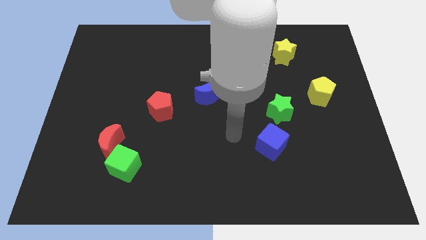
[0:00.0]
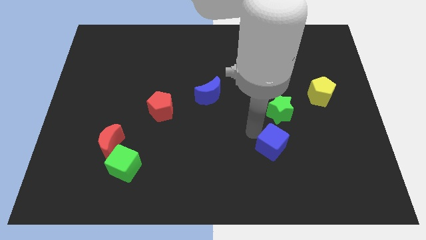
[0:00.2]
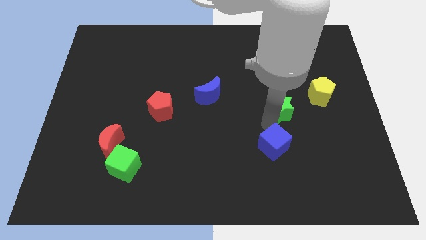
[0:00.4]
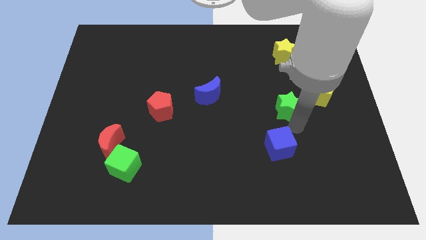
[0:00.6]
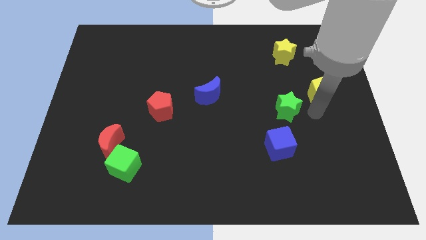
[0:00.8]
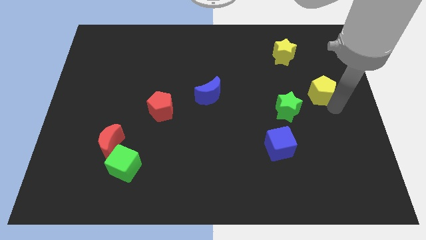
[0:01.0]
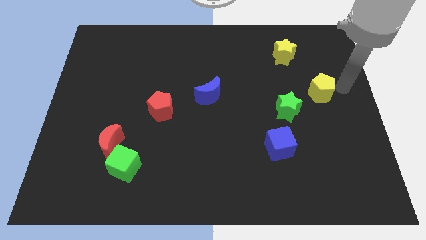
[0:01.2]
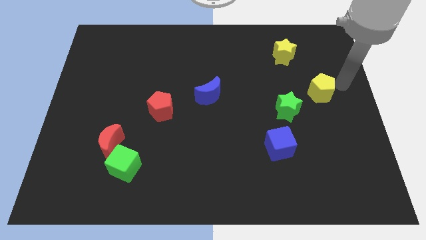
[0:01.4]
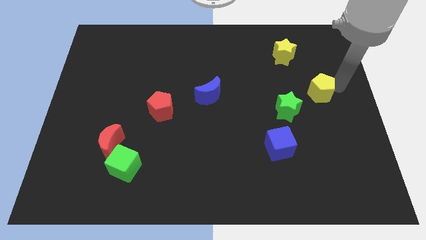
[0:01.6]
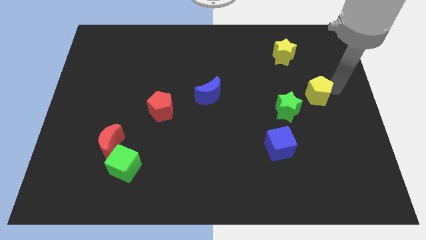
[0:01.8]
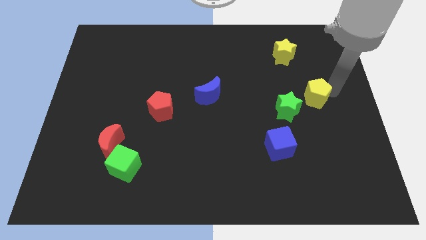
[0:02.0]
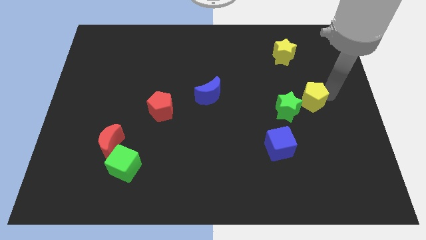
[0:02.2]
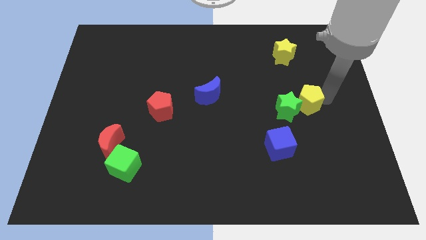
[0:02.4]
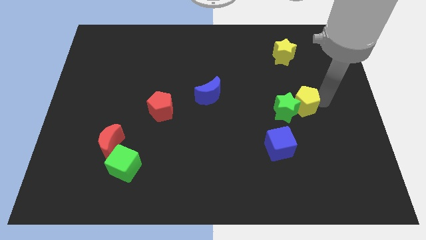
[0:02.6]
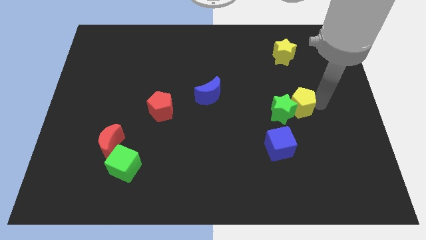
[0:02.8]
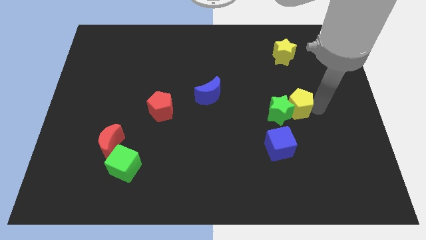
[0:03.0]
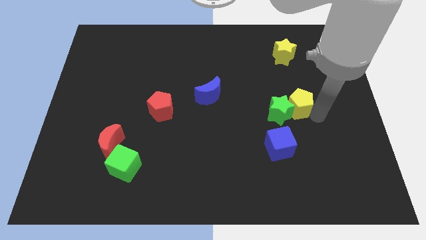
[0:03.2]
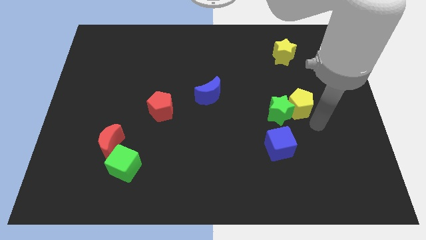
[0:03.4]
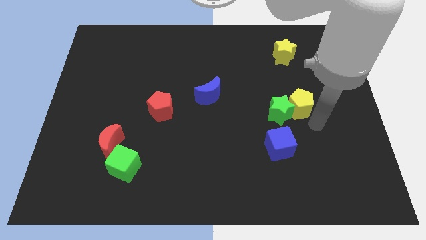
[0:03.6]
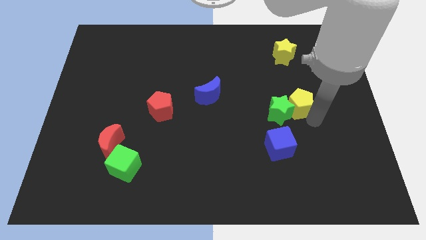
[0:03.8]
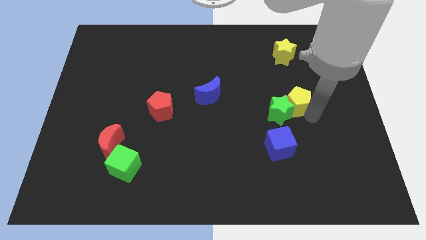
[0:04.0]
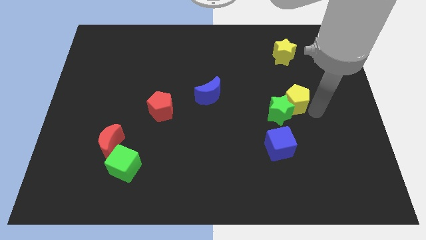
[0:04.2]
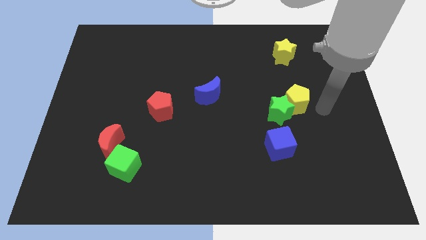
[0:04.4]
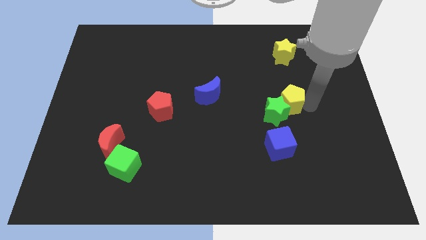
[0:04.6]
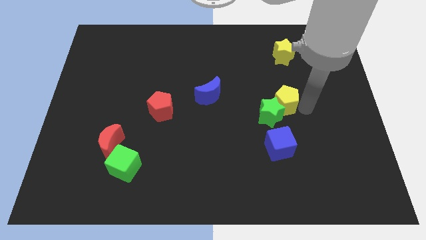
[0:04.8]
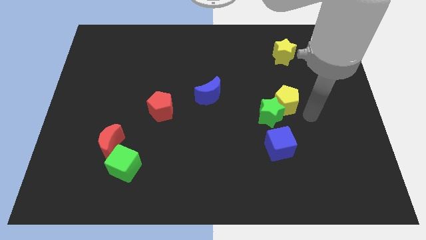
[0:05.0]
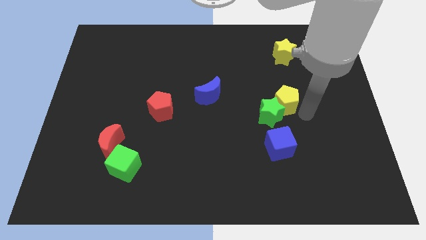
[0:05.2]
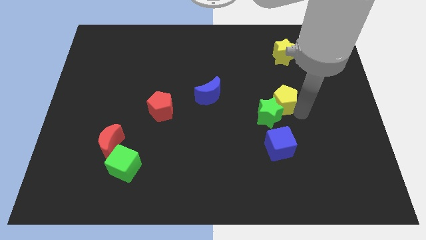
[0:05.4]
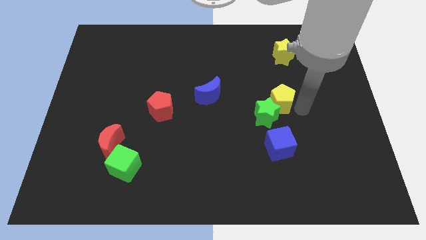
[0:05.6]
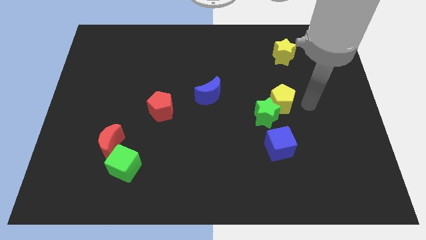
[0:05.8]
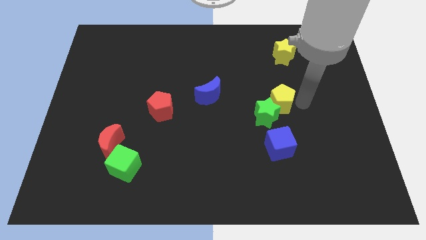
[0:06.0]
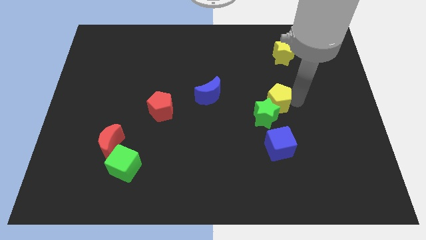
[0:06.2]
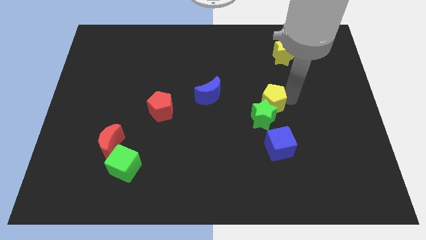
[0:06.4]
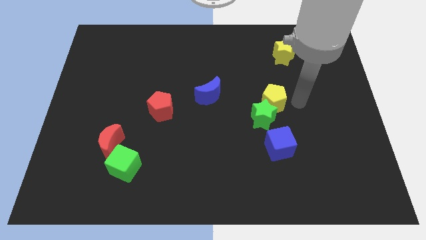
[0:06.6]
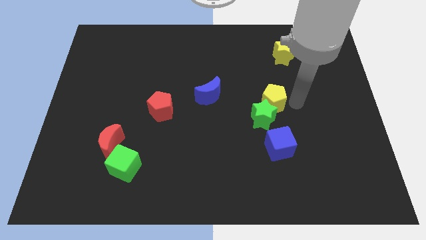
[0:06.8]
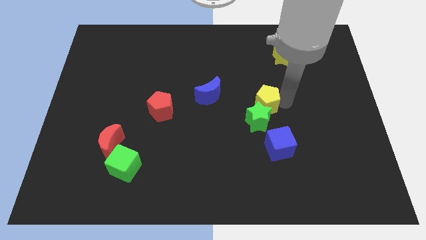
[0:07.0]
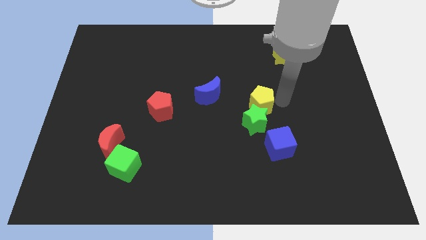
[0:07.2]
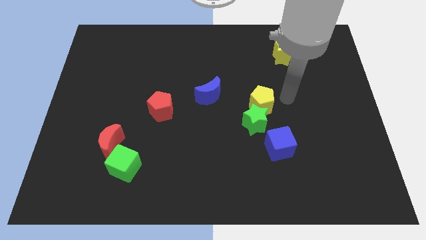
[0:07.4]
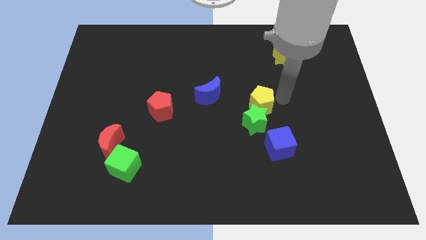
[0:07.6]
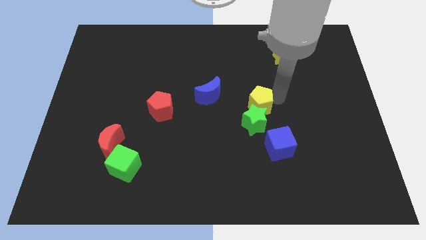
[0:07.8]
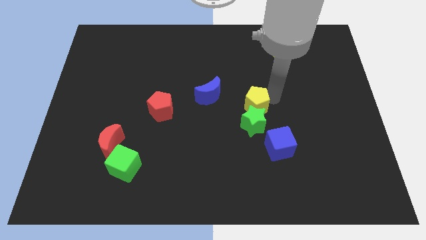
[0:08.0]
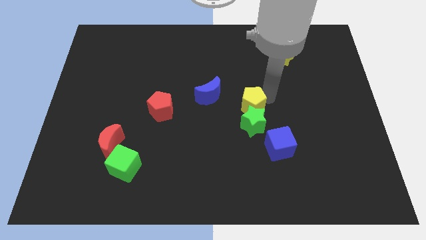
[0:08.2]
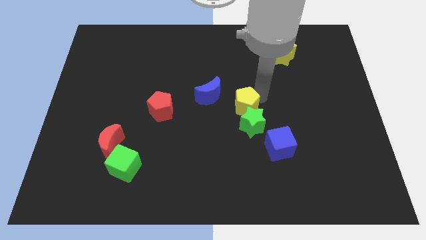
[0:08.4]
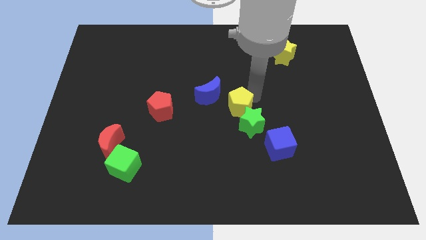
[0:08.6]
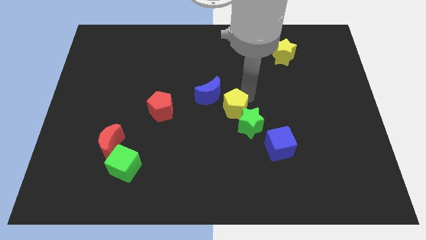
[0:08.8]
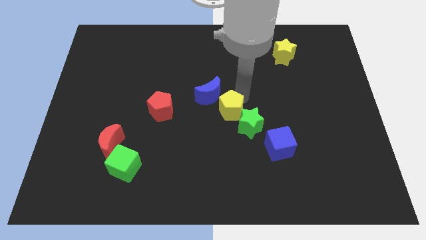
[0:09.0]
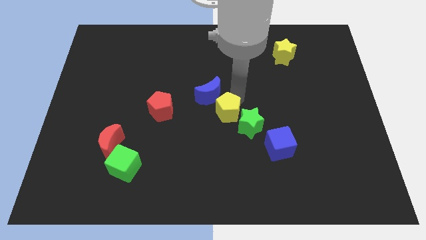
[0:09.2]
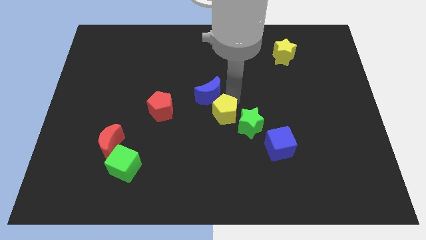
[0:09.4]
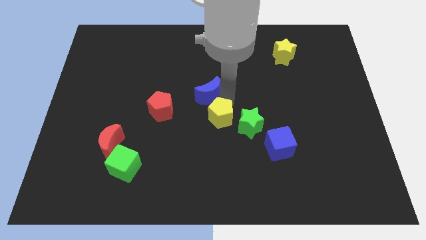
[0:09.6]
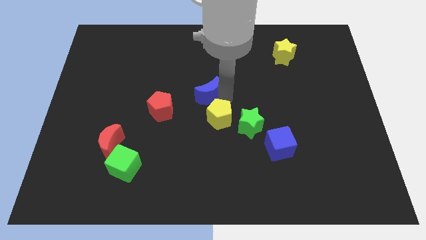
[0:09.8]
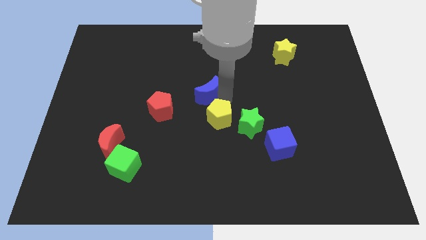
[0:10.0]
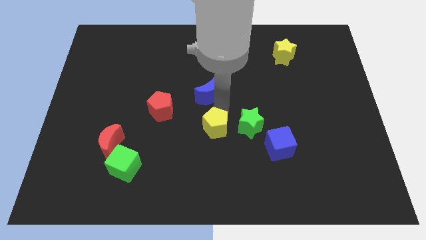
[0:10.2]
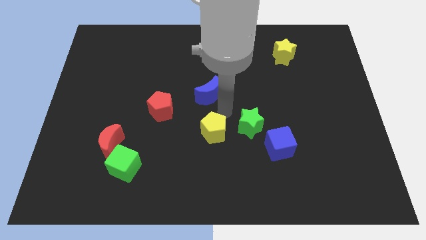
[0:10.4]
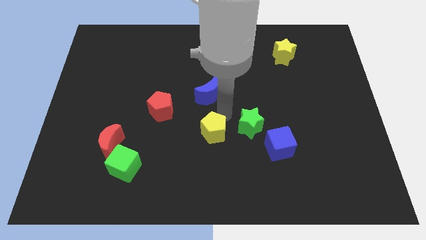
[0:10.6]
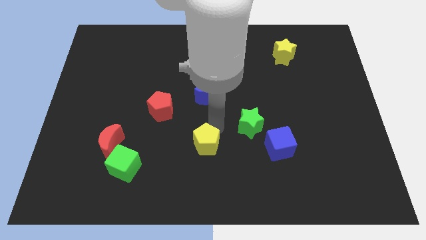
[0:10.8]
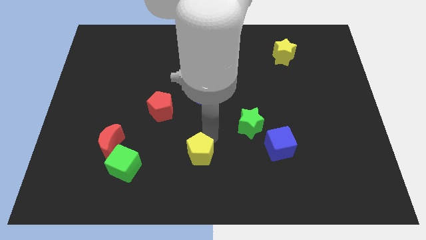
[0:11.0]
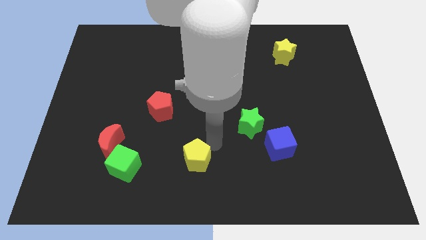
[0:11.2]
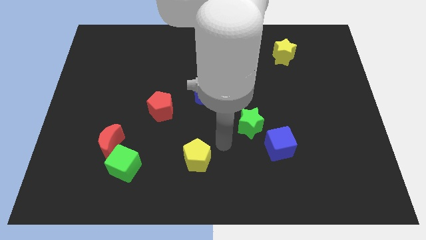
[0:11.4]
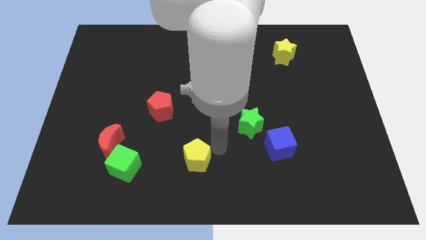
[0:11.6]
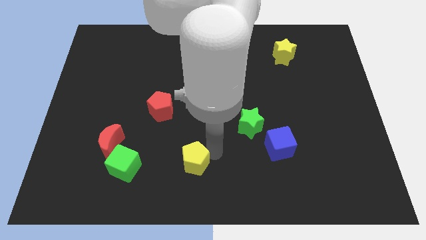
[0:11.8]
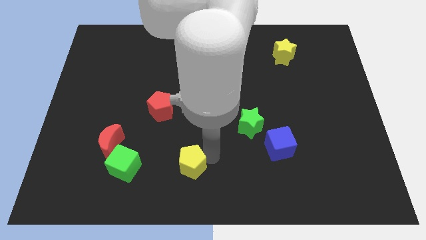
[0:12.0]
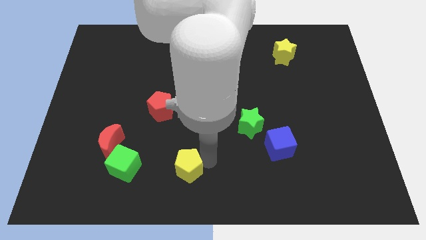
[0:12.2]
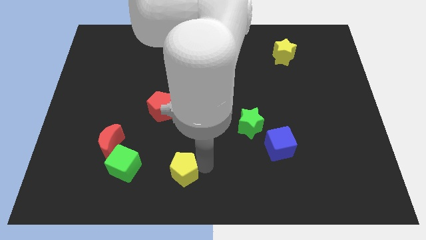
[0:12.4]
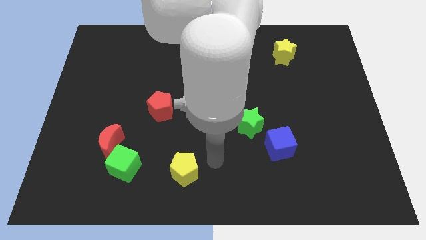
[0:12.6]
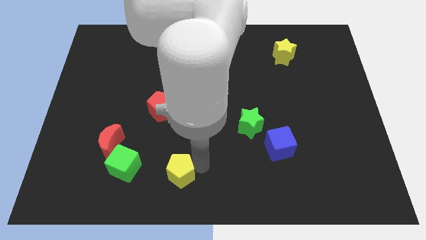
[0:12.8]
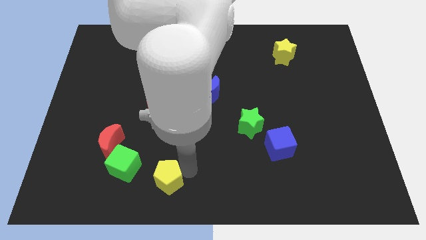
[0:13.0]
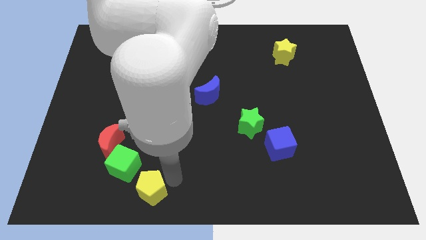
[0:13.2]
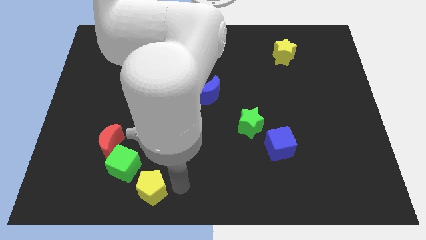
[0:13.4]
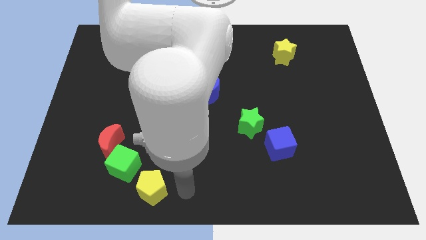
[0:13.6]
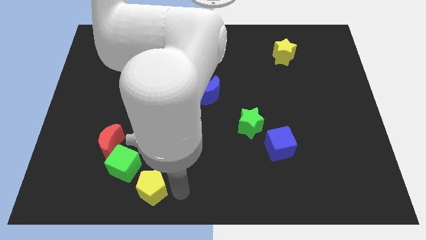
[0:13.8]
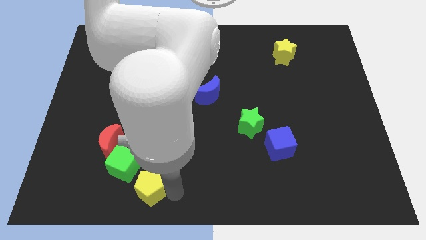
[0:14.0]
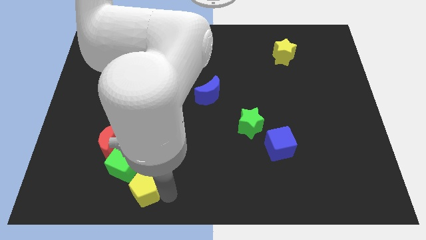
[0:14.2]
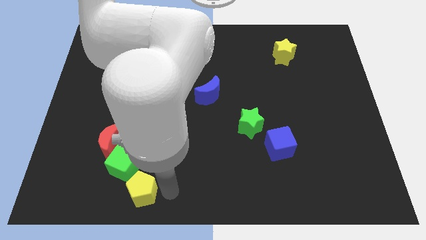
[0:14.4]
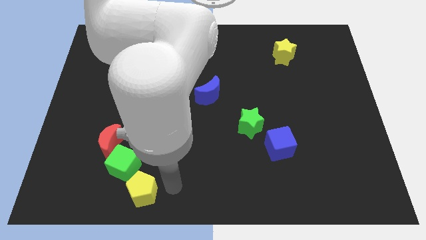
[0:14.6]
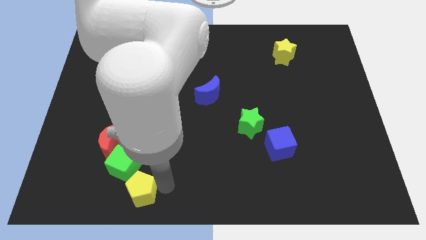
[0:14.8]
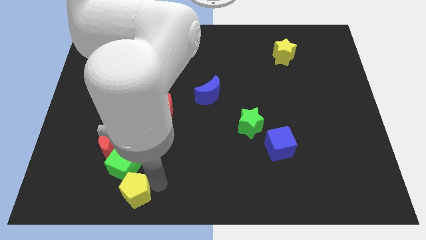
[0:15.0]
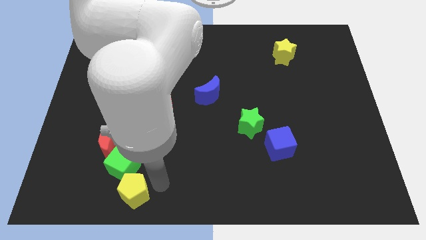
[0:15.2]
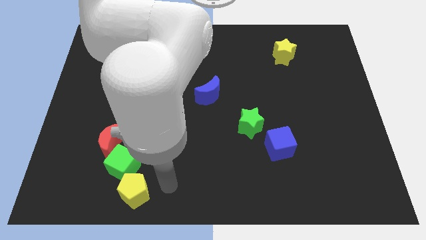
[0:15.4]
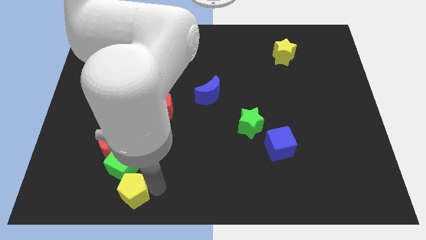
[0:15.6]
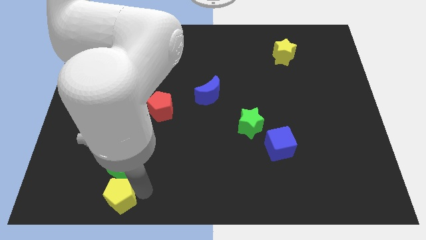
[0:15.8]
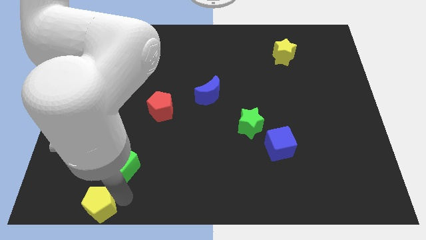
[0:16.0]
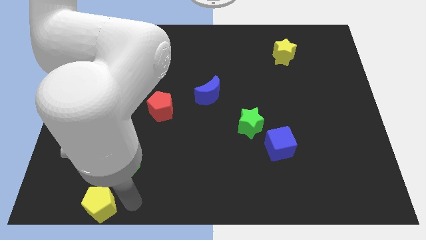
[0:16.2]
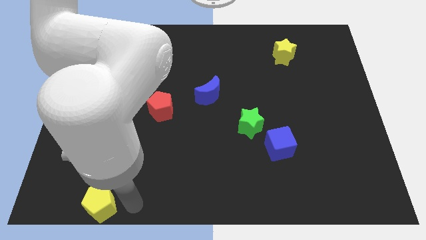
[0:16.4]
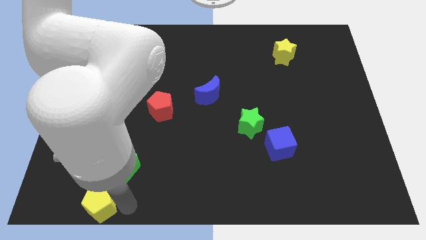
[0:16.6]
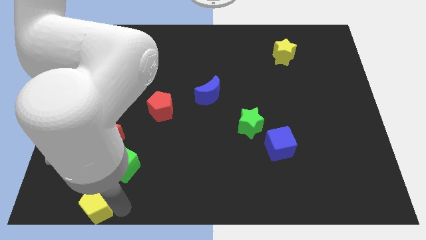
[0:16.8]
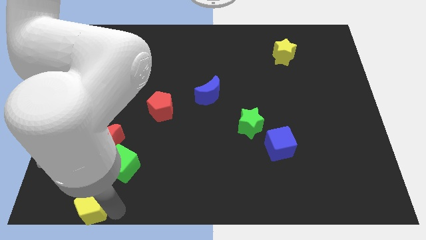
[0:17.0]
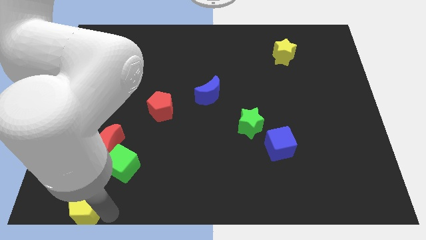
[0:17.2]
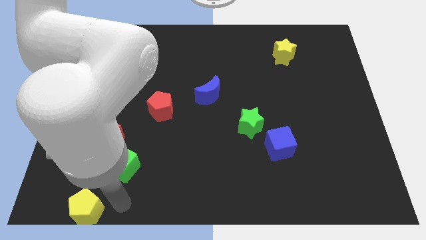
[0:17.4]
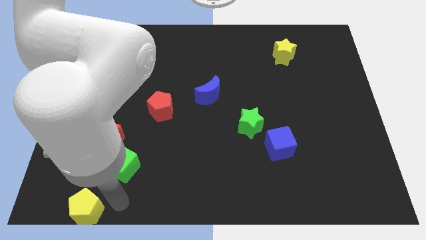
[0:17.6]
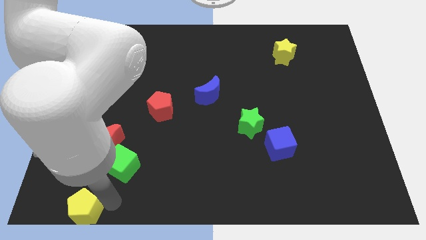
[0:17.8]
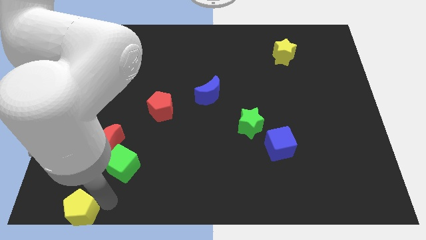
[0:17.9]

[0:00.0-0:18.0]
push the yellow pentagon to the bottom left
